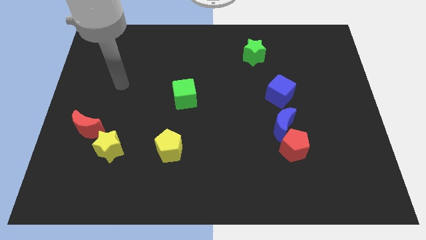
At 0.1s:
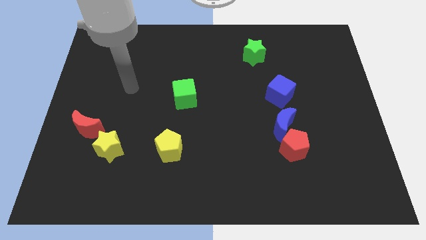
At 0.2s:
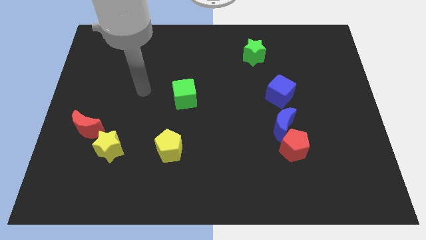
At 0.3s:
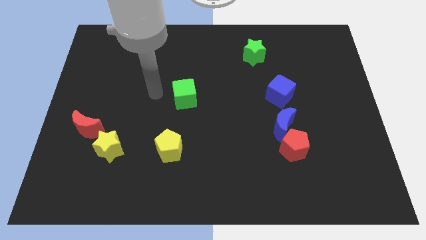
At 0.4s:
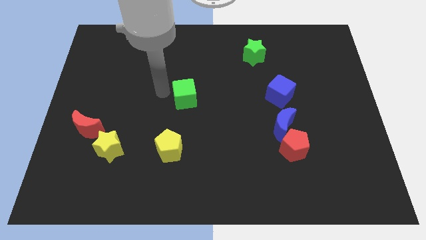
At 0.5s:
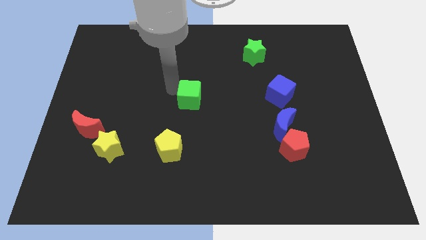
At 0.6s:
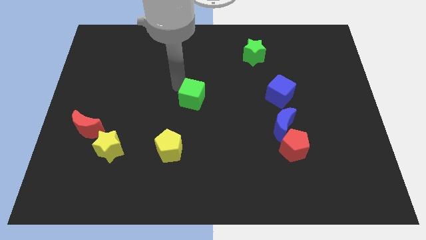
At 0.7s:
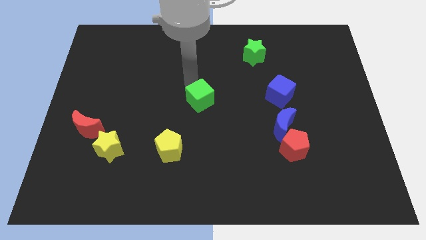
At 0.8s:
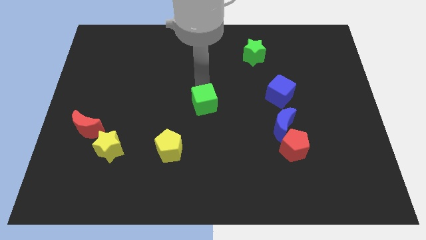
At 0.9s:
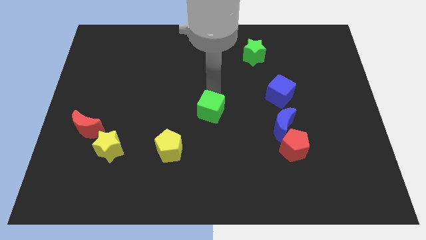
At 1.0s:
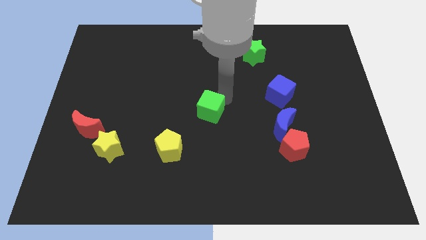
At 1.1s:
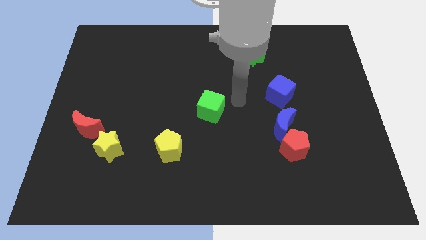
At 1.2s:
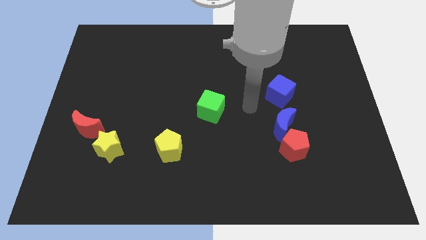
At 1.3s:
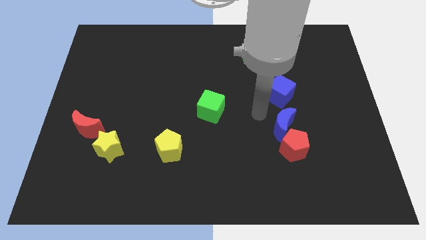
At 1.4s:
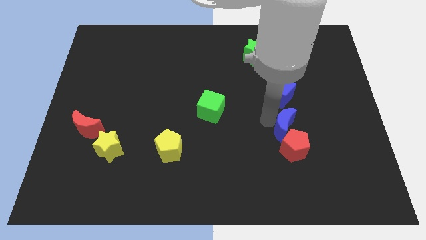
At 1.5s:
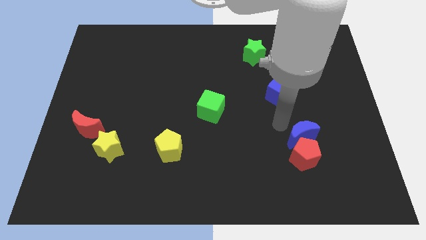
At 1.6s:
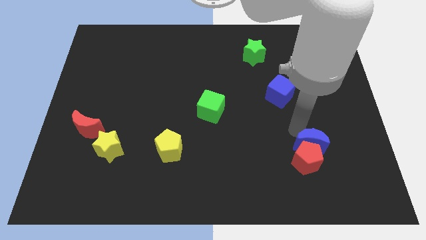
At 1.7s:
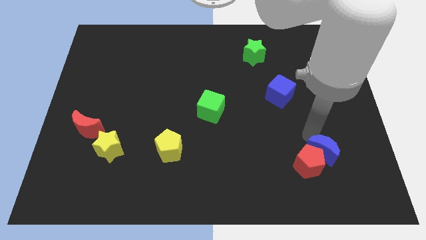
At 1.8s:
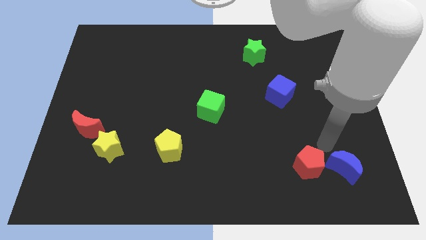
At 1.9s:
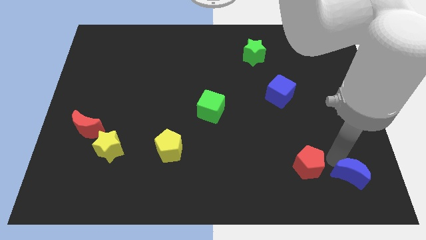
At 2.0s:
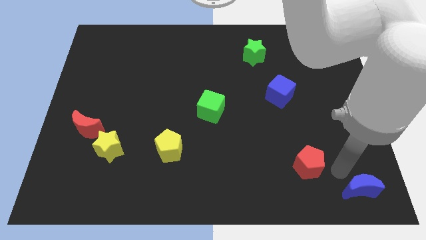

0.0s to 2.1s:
pull the red pentagon apart from the blue moon

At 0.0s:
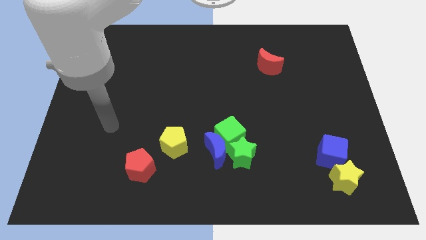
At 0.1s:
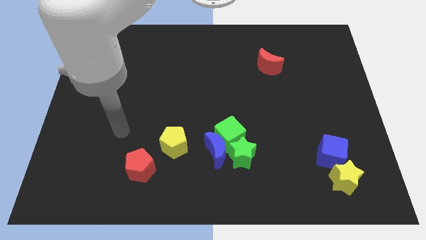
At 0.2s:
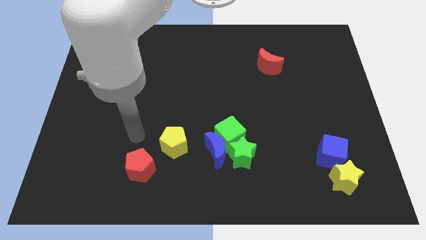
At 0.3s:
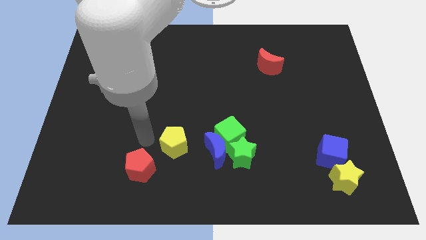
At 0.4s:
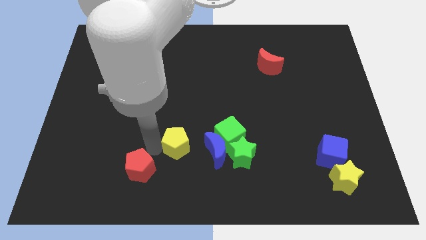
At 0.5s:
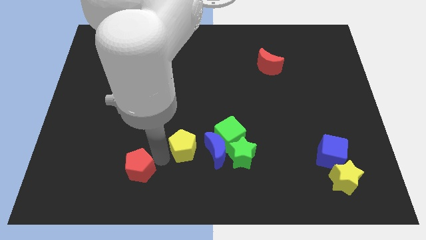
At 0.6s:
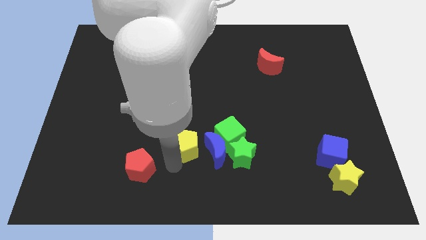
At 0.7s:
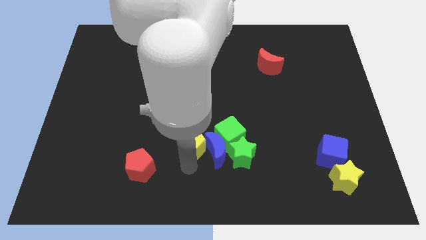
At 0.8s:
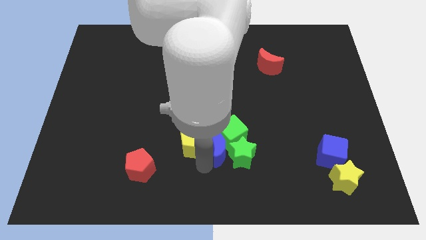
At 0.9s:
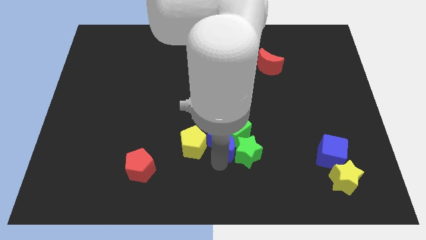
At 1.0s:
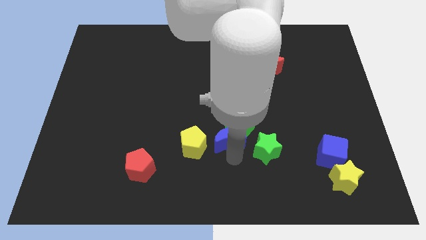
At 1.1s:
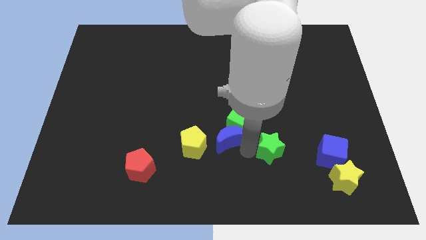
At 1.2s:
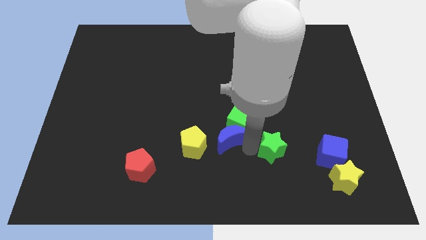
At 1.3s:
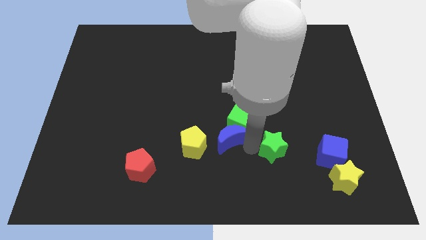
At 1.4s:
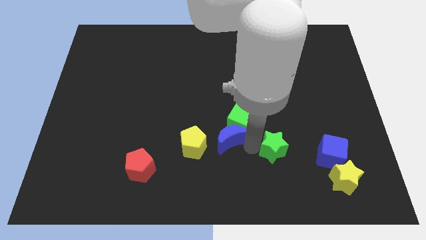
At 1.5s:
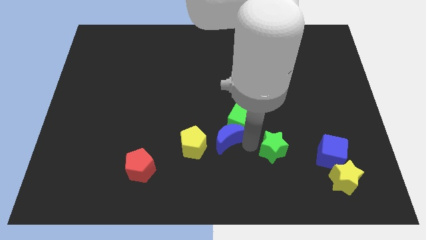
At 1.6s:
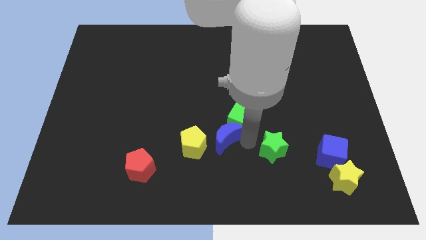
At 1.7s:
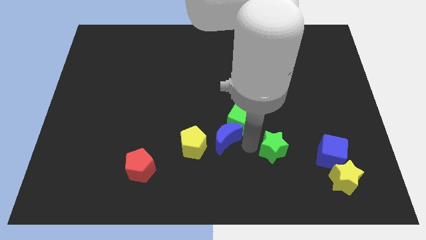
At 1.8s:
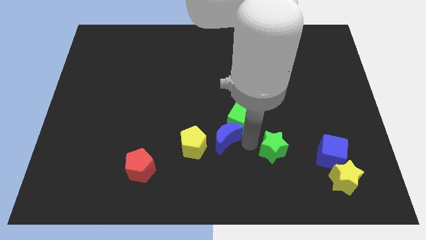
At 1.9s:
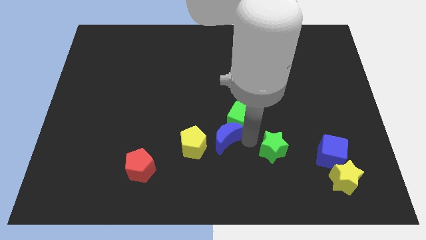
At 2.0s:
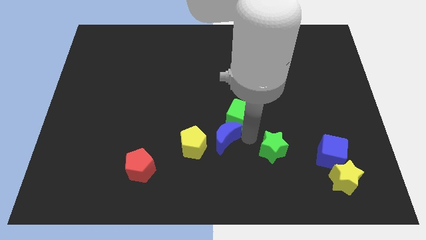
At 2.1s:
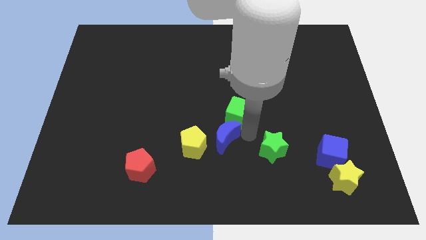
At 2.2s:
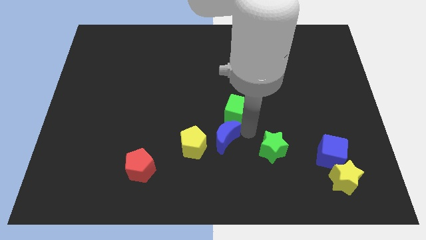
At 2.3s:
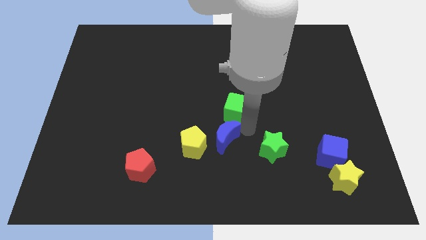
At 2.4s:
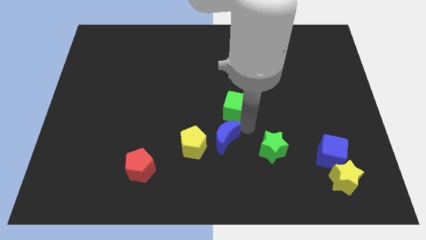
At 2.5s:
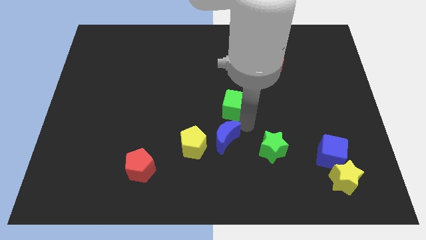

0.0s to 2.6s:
separate the green cube from the blue moon and green star

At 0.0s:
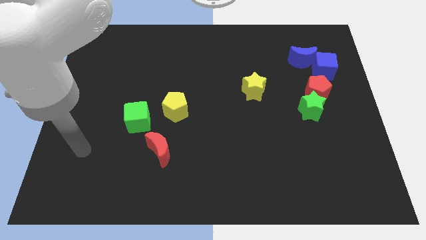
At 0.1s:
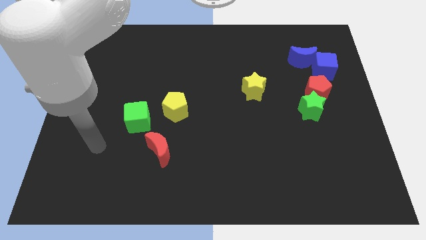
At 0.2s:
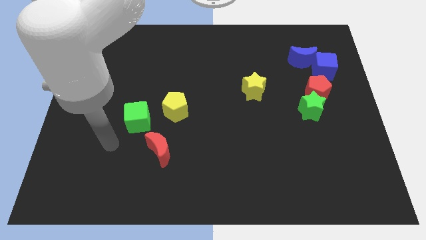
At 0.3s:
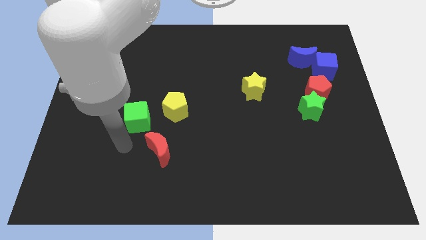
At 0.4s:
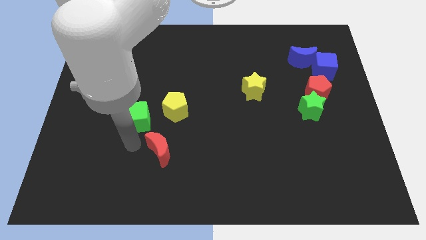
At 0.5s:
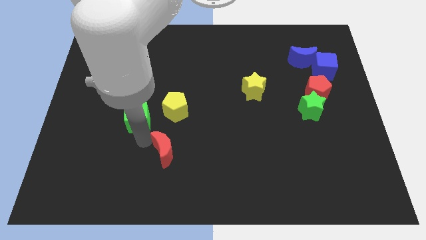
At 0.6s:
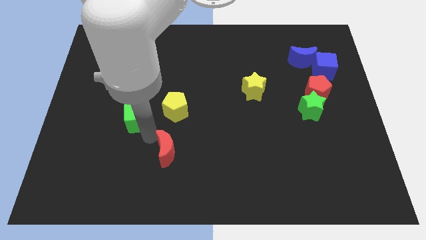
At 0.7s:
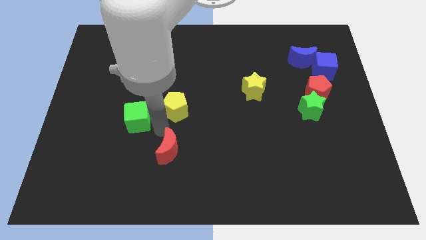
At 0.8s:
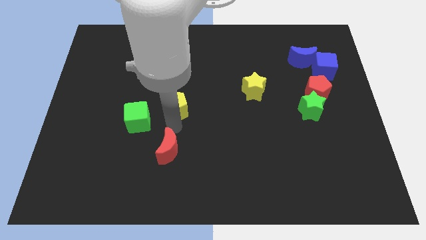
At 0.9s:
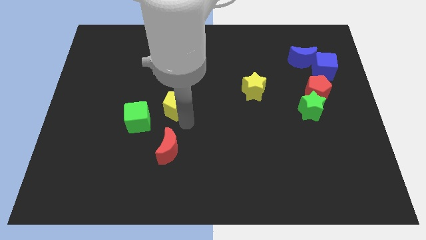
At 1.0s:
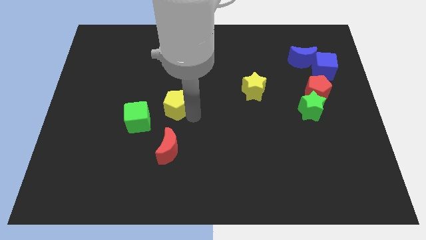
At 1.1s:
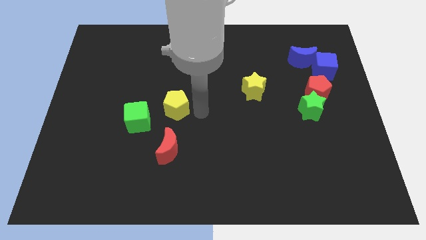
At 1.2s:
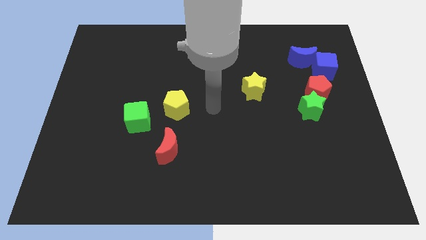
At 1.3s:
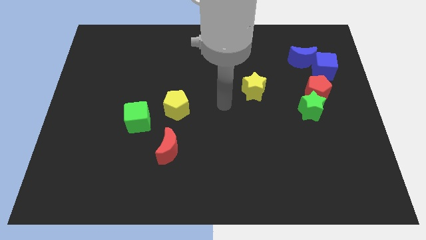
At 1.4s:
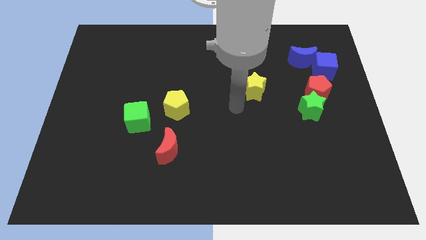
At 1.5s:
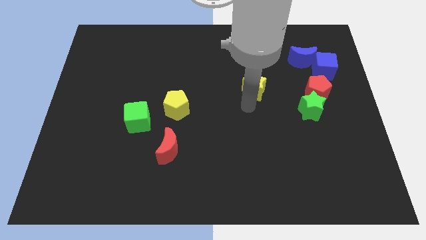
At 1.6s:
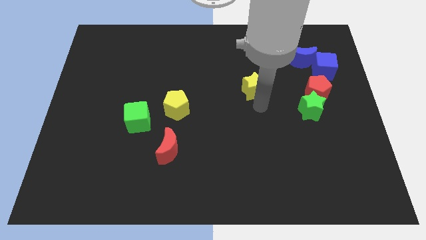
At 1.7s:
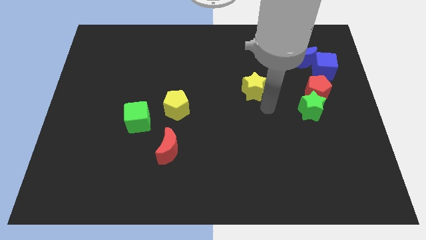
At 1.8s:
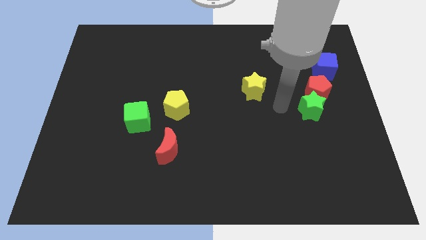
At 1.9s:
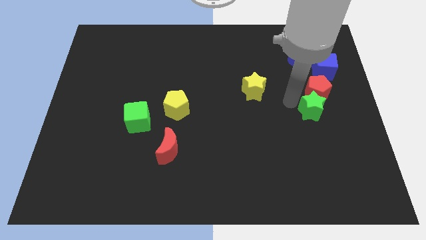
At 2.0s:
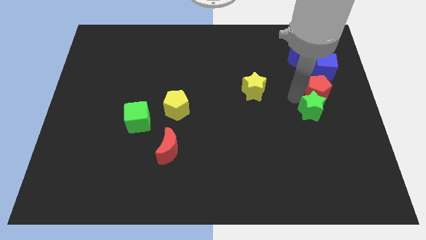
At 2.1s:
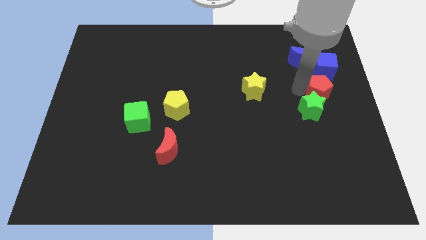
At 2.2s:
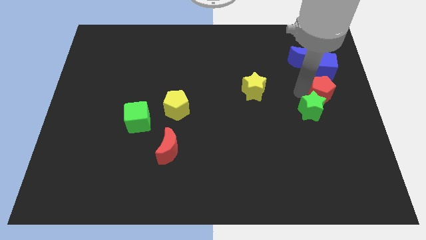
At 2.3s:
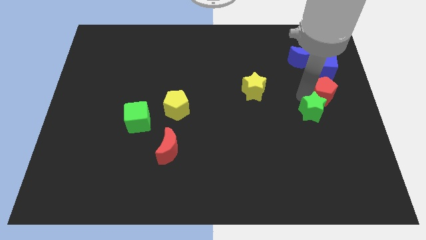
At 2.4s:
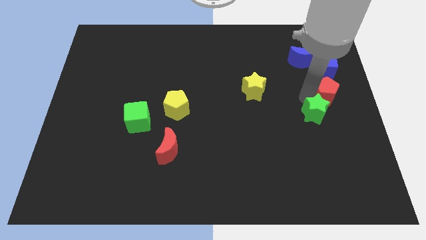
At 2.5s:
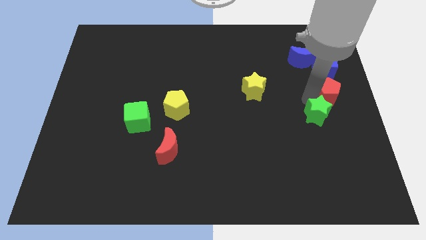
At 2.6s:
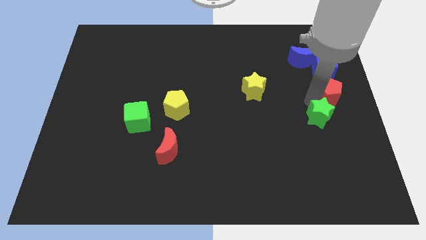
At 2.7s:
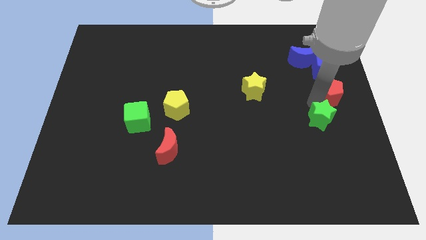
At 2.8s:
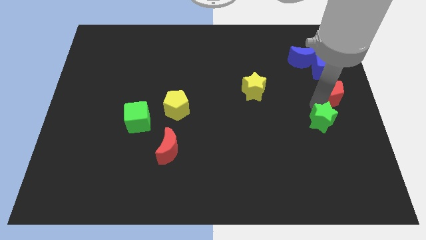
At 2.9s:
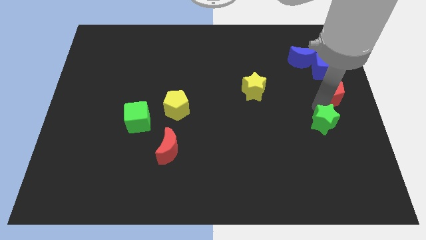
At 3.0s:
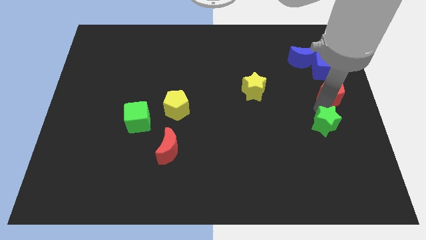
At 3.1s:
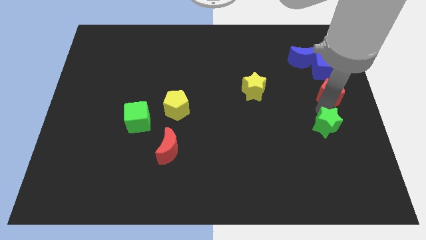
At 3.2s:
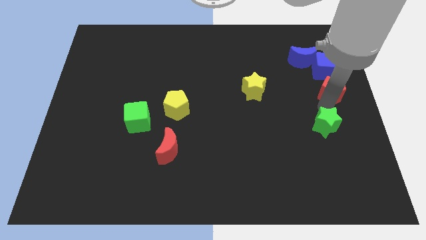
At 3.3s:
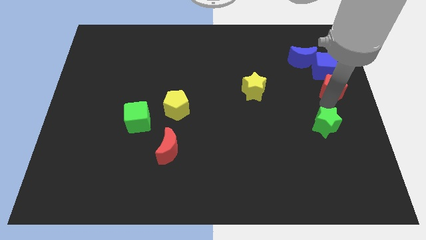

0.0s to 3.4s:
separate the green star from the red pentagon

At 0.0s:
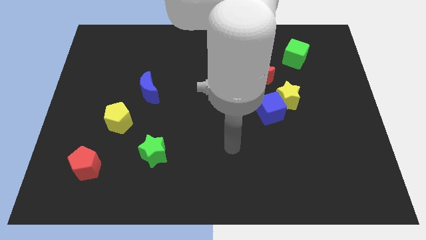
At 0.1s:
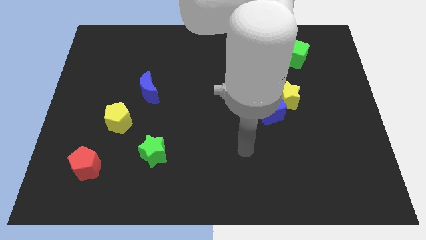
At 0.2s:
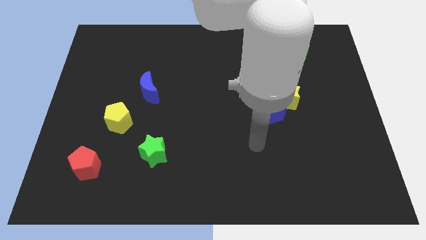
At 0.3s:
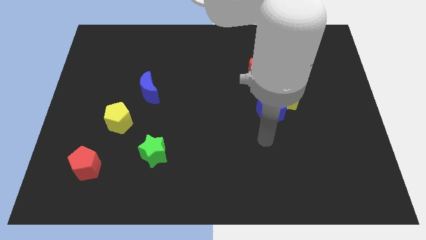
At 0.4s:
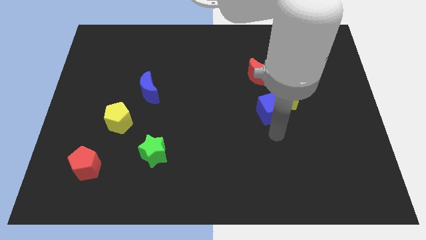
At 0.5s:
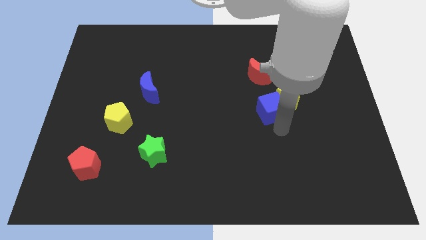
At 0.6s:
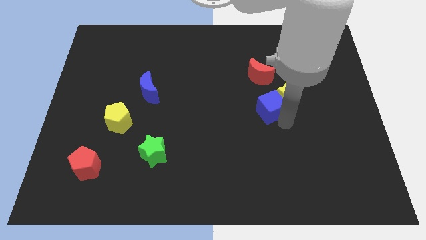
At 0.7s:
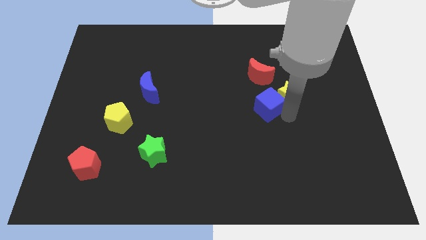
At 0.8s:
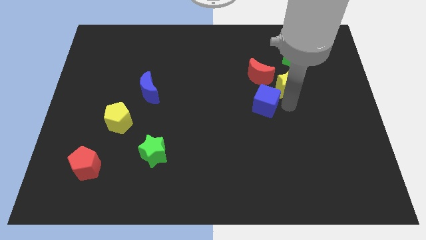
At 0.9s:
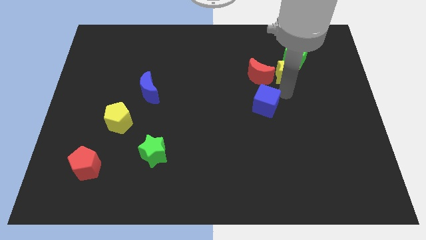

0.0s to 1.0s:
separate the blue cube from the yellow star

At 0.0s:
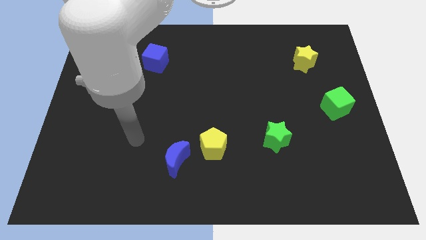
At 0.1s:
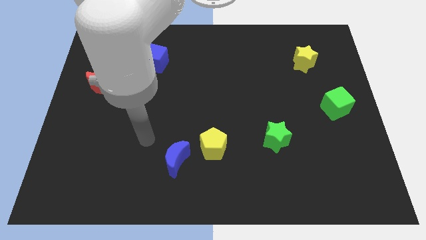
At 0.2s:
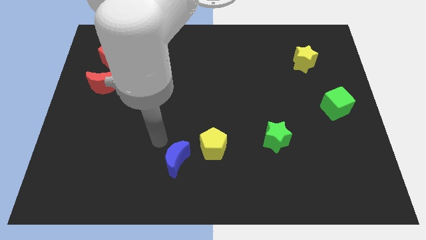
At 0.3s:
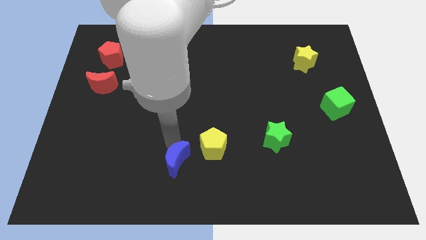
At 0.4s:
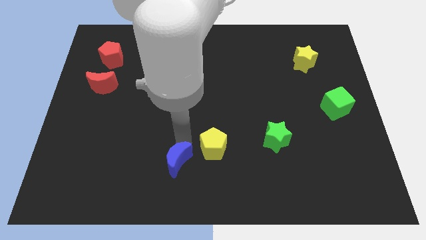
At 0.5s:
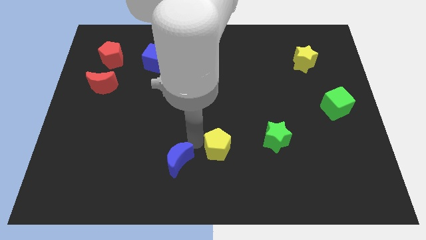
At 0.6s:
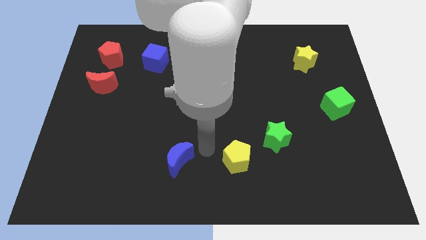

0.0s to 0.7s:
pull the blue moon apart from the yellow pentagon
